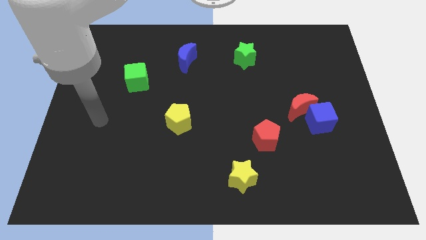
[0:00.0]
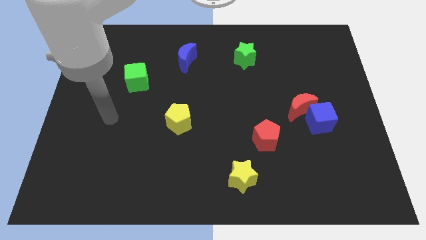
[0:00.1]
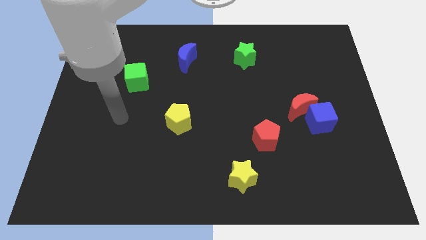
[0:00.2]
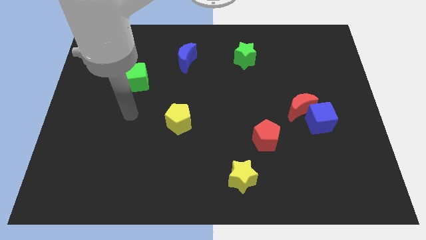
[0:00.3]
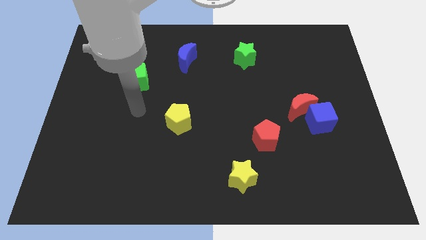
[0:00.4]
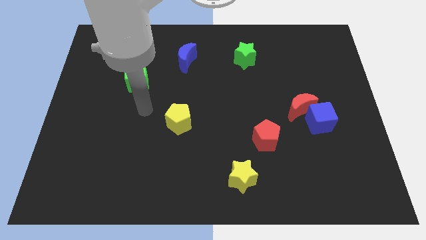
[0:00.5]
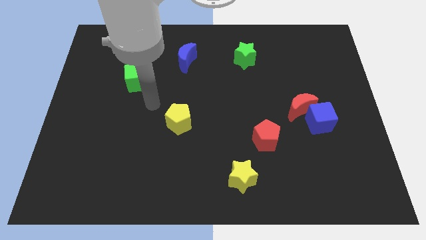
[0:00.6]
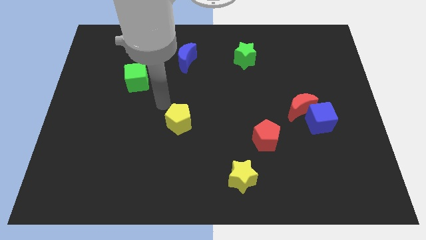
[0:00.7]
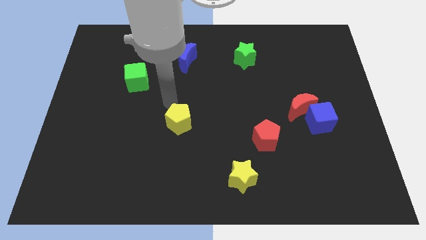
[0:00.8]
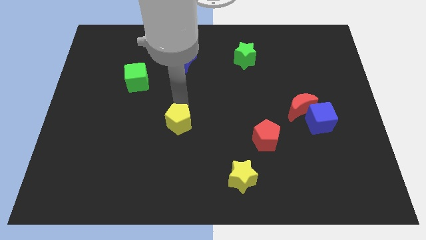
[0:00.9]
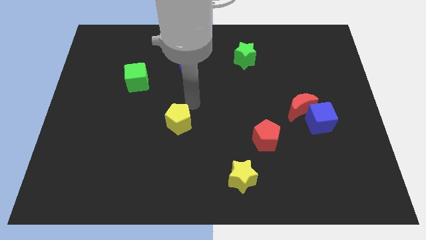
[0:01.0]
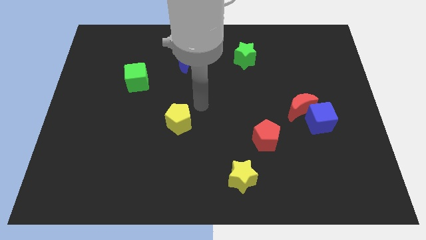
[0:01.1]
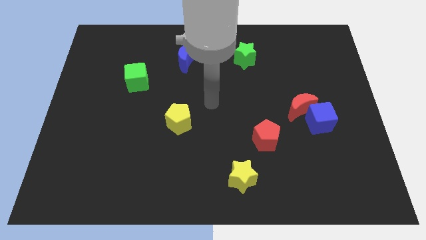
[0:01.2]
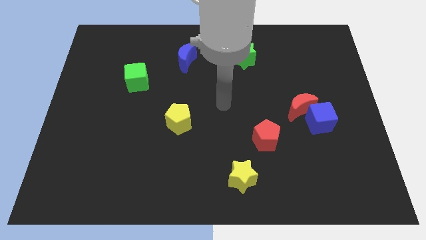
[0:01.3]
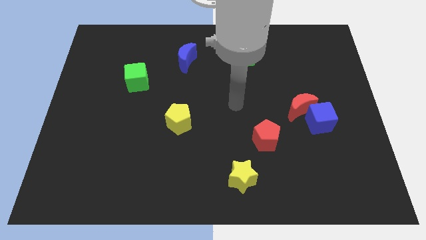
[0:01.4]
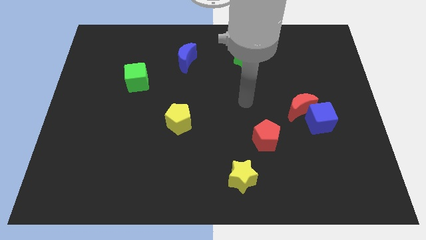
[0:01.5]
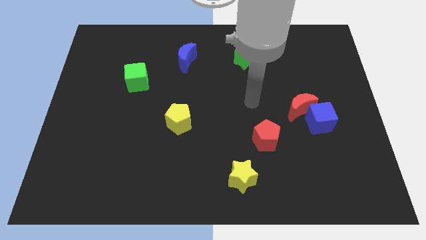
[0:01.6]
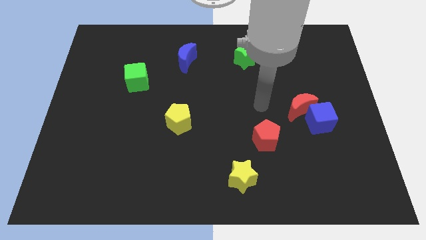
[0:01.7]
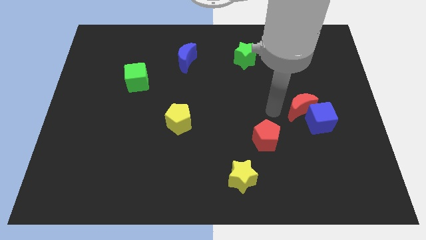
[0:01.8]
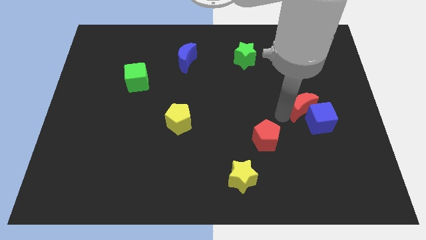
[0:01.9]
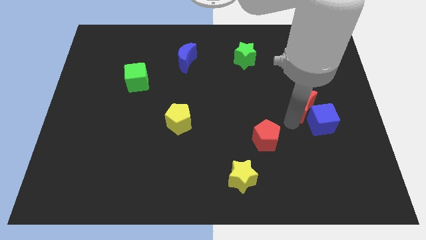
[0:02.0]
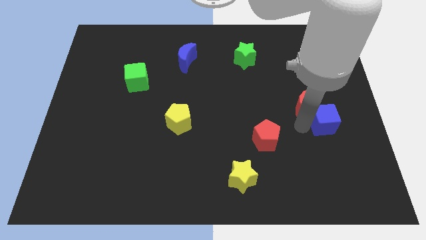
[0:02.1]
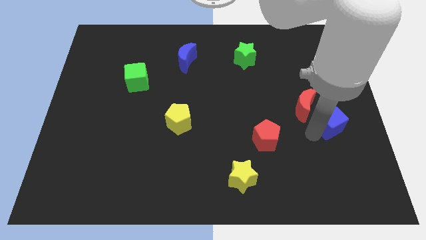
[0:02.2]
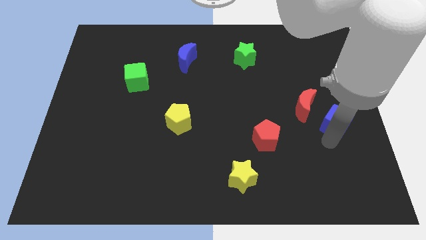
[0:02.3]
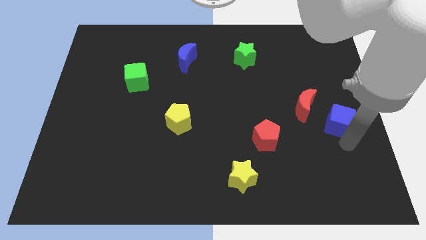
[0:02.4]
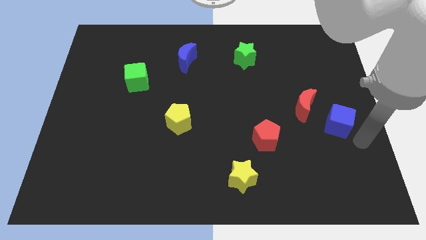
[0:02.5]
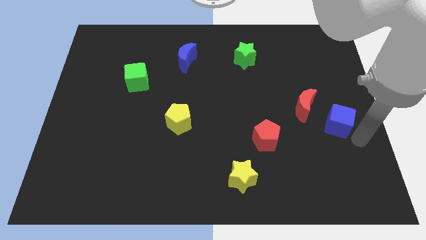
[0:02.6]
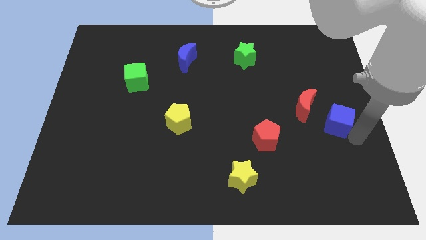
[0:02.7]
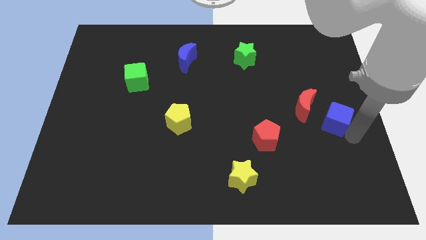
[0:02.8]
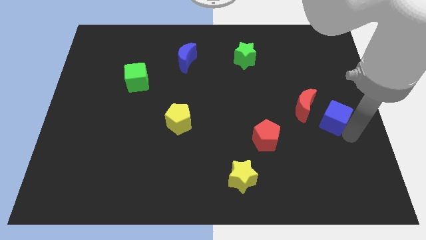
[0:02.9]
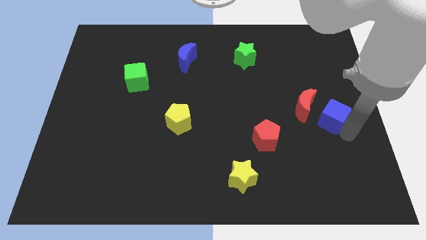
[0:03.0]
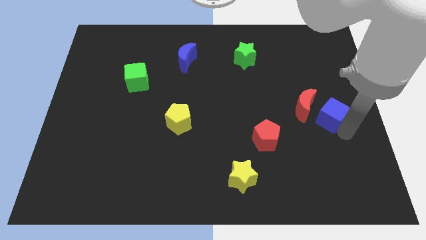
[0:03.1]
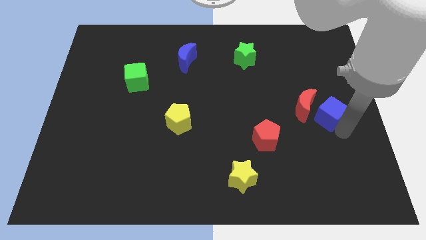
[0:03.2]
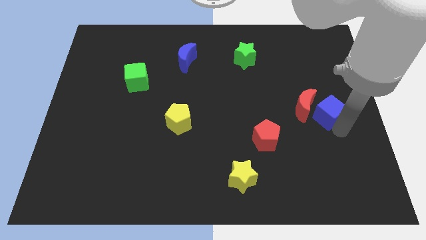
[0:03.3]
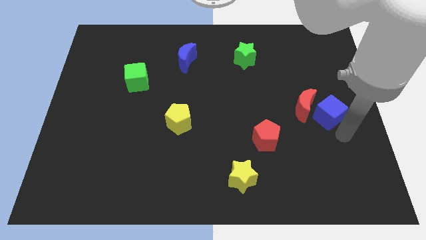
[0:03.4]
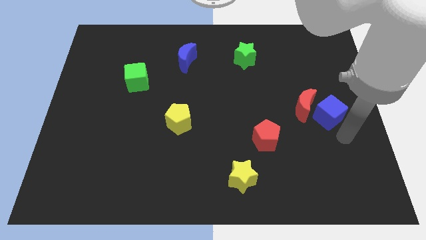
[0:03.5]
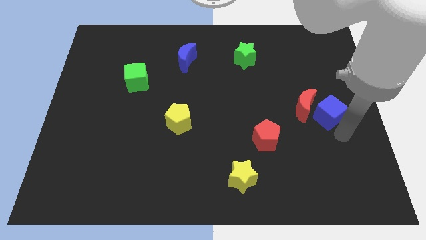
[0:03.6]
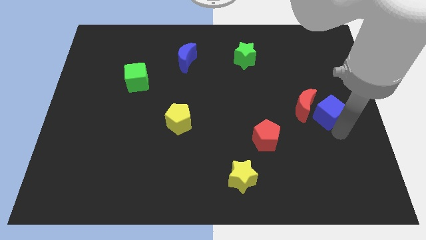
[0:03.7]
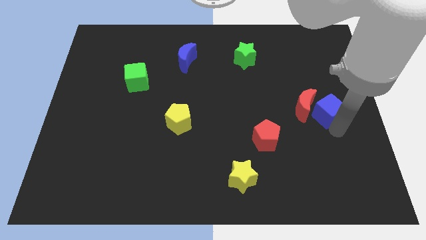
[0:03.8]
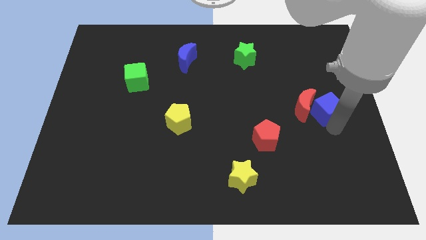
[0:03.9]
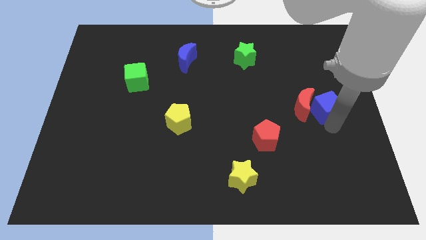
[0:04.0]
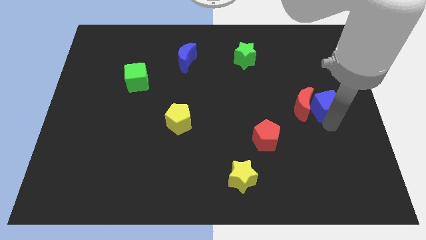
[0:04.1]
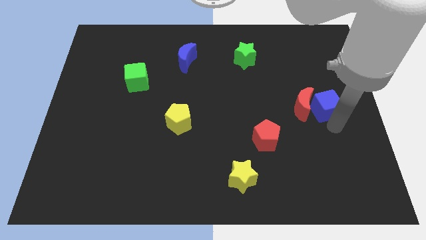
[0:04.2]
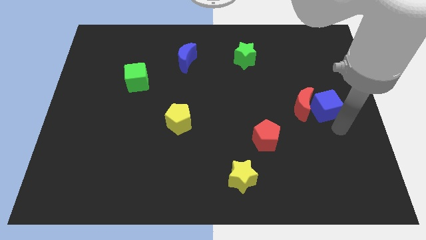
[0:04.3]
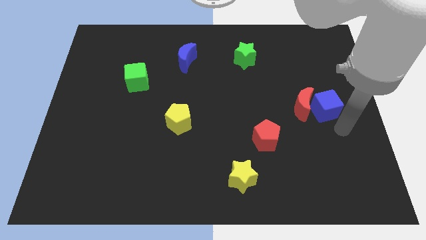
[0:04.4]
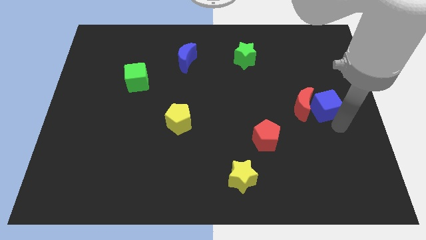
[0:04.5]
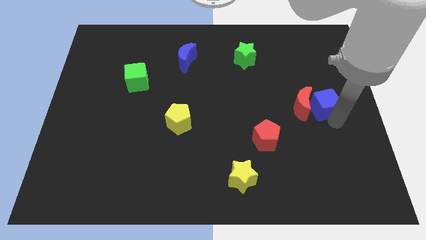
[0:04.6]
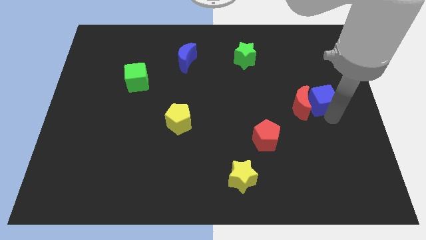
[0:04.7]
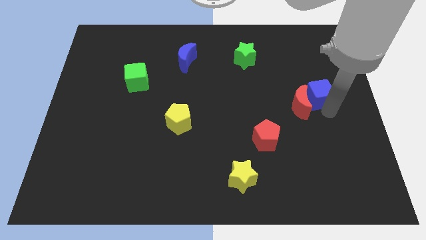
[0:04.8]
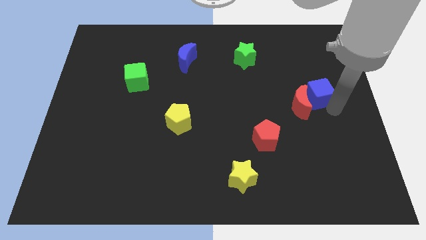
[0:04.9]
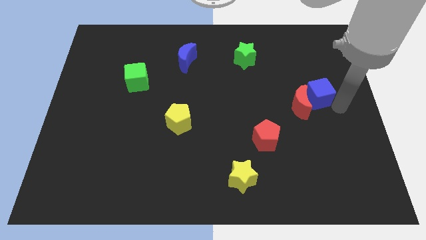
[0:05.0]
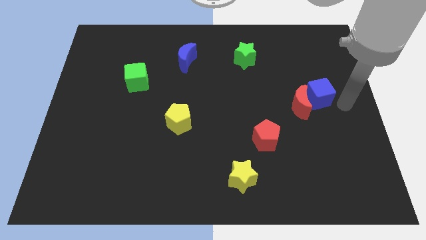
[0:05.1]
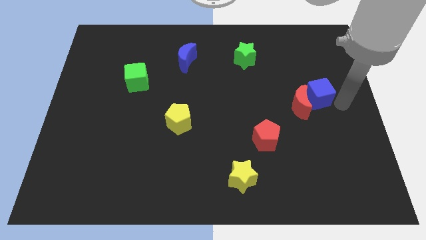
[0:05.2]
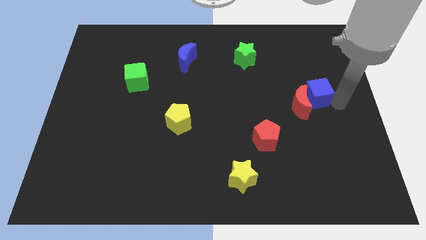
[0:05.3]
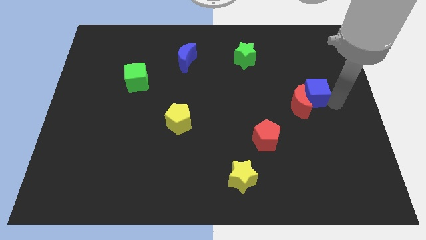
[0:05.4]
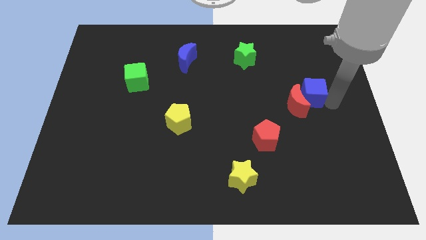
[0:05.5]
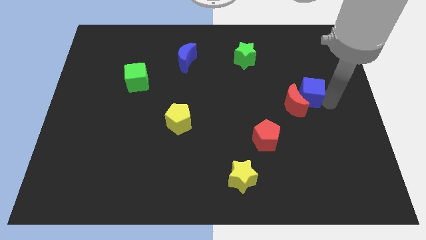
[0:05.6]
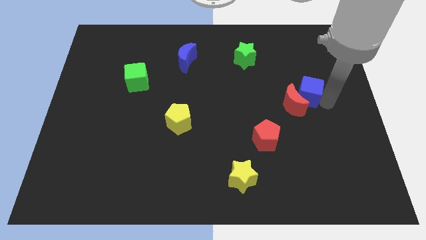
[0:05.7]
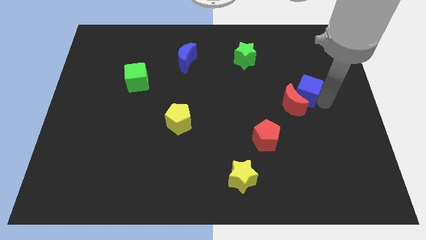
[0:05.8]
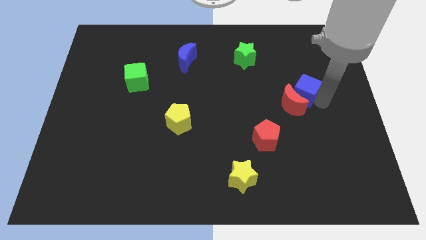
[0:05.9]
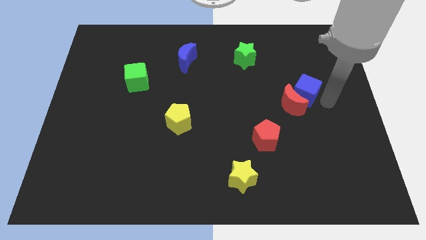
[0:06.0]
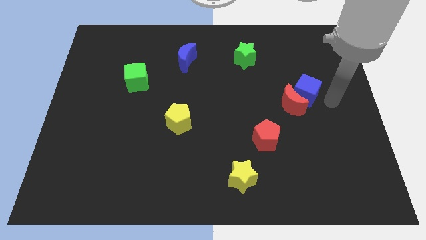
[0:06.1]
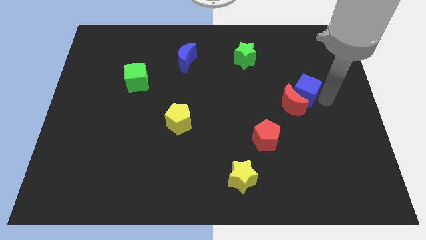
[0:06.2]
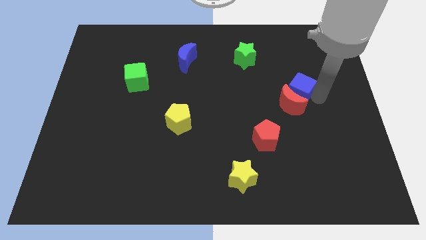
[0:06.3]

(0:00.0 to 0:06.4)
slightly slide the blue cube up and then left

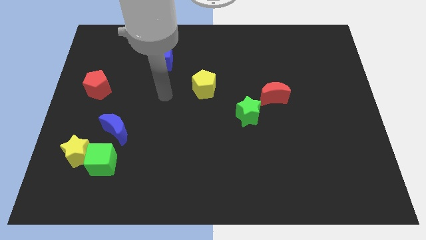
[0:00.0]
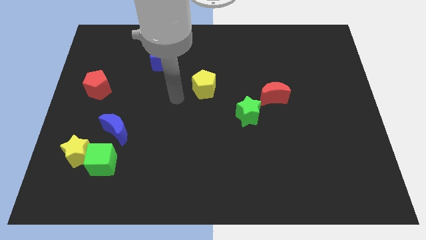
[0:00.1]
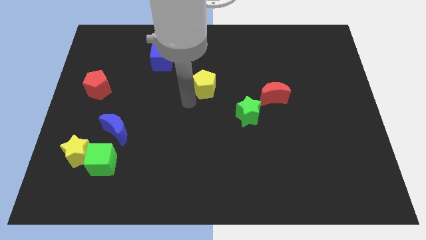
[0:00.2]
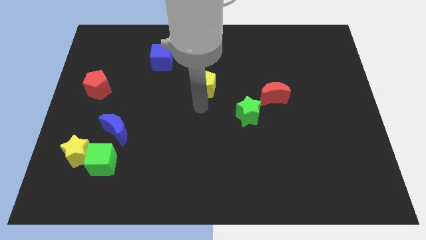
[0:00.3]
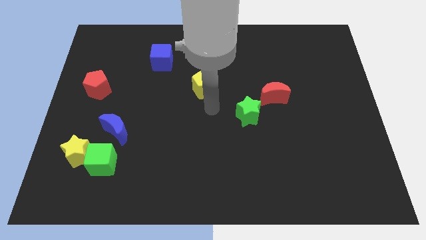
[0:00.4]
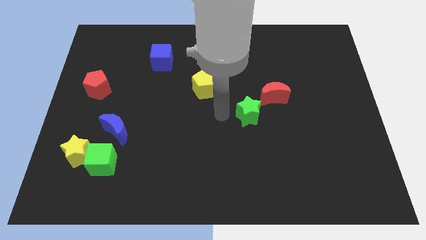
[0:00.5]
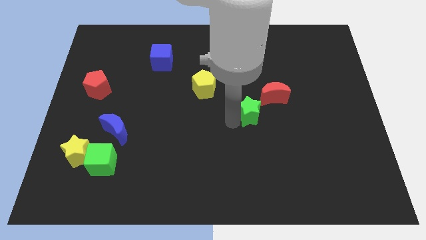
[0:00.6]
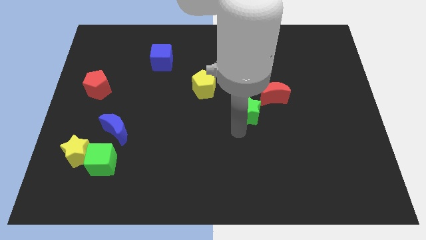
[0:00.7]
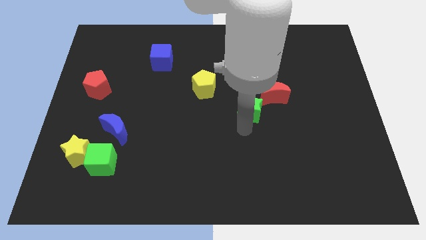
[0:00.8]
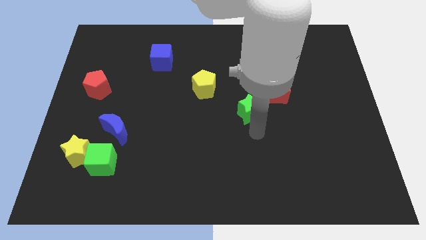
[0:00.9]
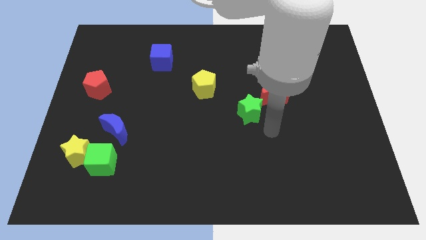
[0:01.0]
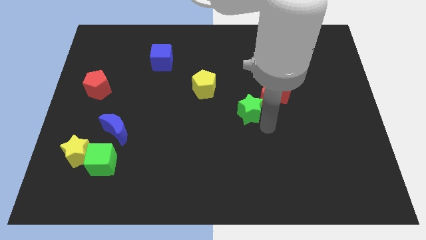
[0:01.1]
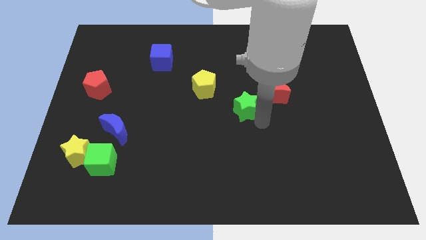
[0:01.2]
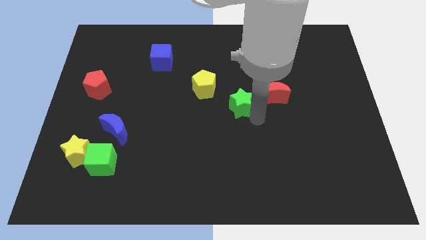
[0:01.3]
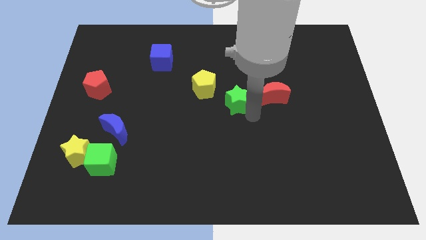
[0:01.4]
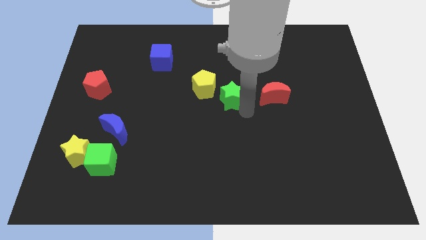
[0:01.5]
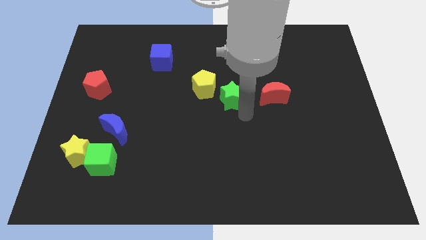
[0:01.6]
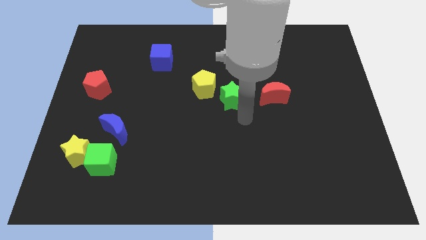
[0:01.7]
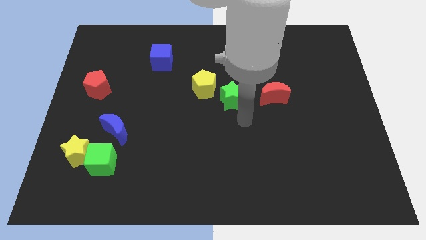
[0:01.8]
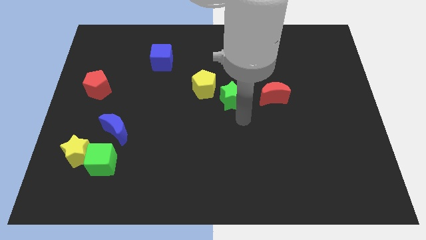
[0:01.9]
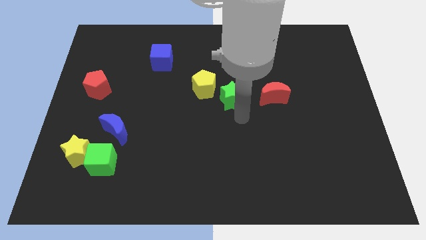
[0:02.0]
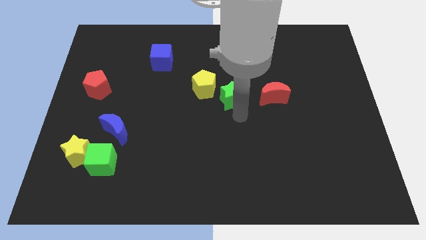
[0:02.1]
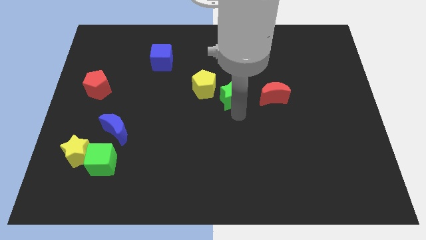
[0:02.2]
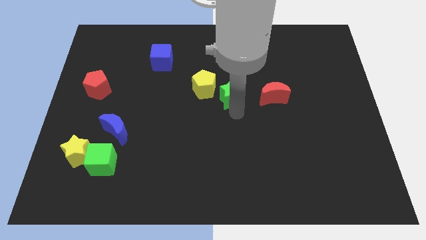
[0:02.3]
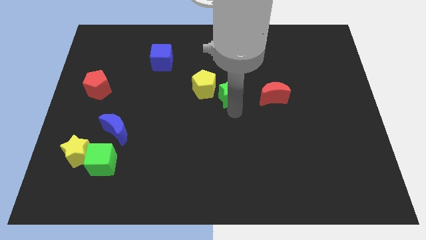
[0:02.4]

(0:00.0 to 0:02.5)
slightly slide the green star upwards and left
